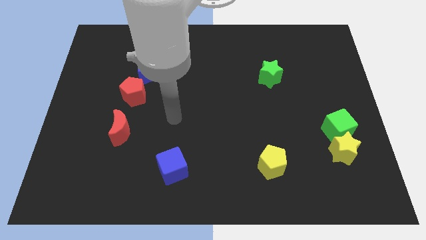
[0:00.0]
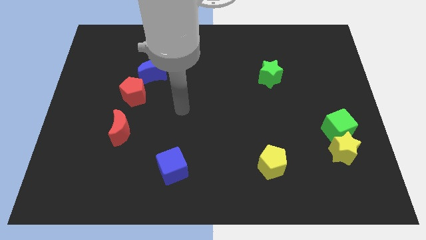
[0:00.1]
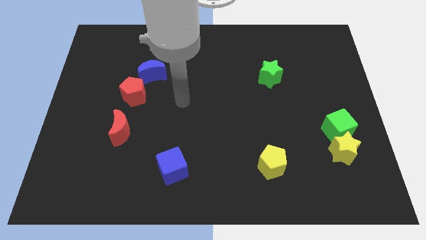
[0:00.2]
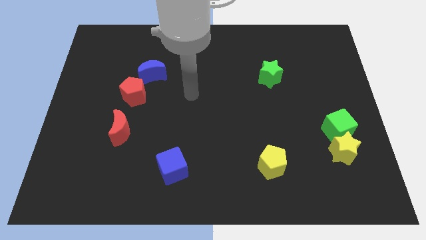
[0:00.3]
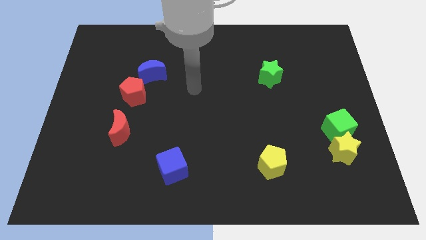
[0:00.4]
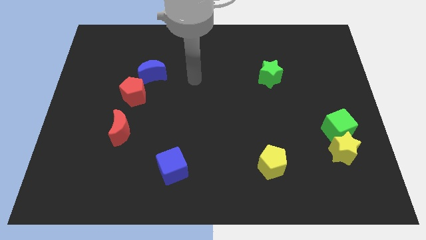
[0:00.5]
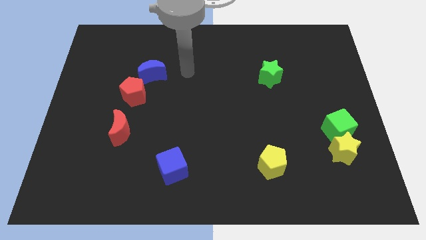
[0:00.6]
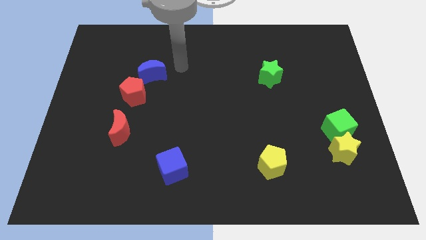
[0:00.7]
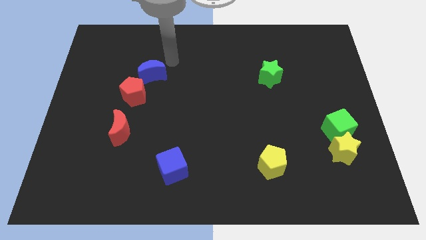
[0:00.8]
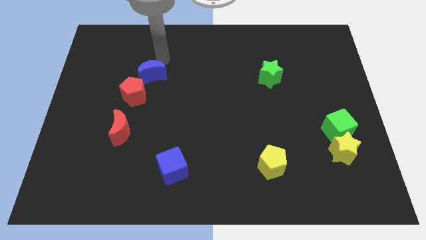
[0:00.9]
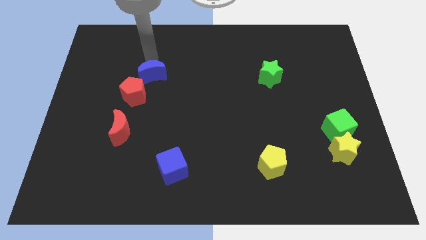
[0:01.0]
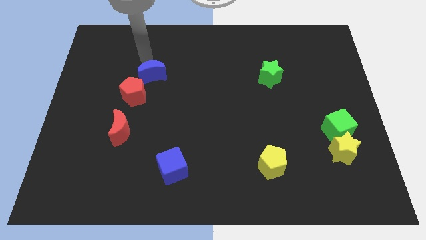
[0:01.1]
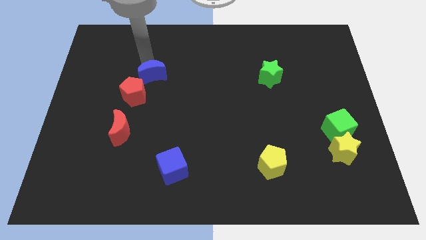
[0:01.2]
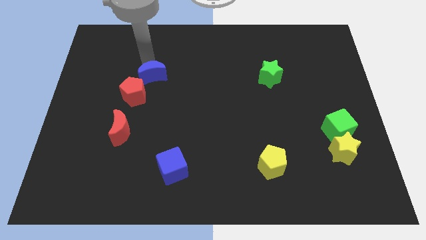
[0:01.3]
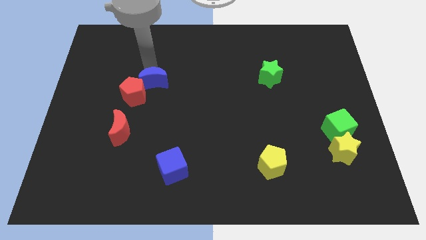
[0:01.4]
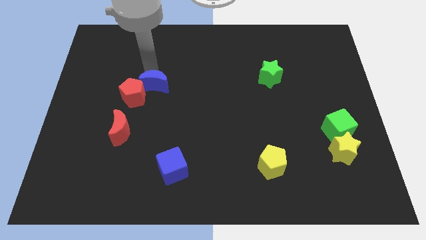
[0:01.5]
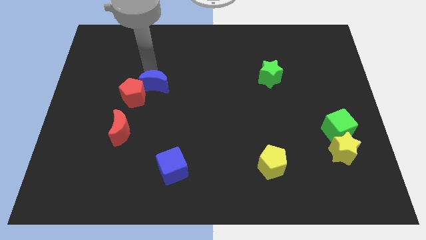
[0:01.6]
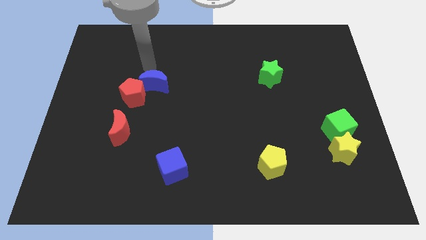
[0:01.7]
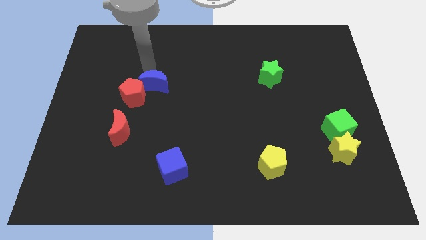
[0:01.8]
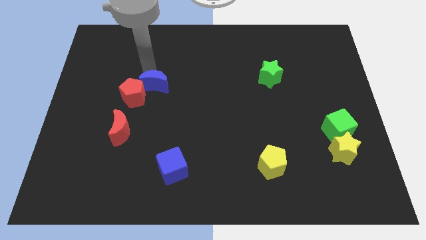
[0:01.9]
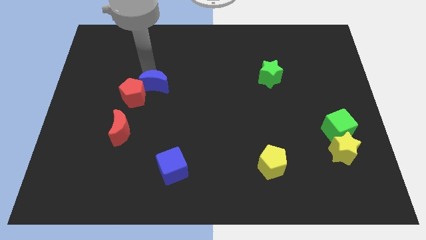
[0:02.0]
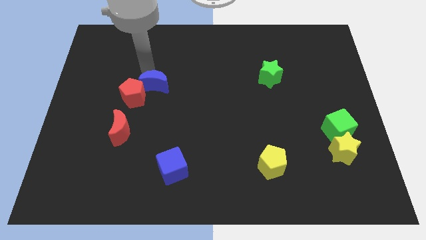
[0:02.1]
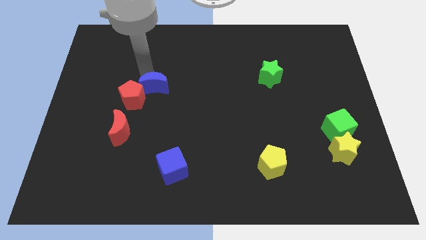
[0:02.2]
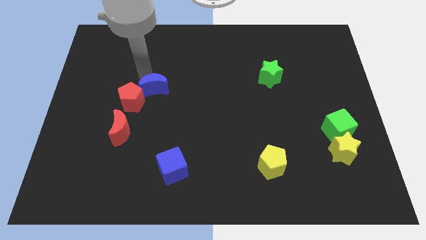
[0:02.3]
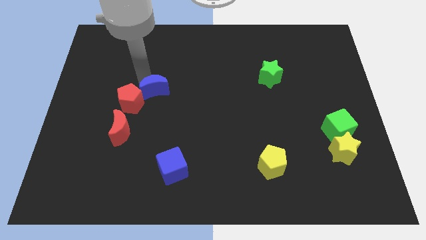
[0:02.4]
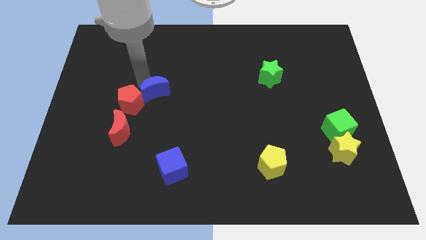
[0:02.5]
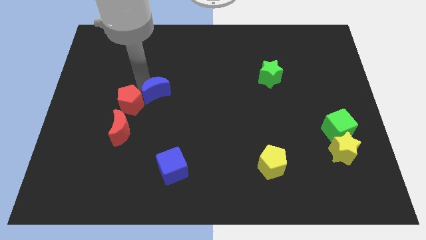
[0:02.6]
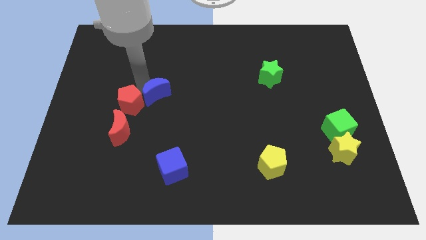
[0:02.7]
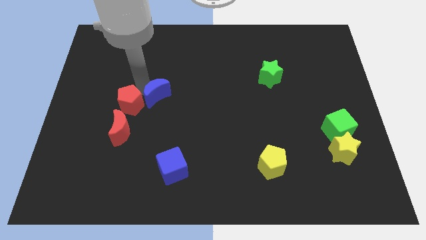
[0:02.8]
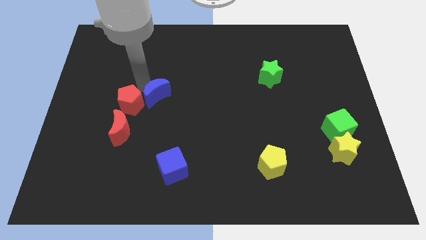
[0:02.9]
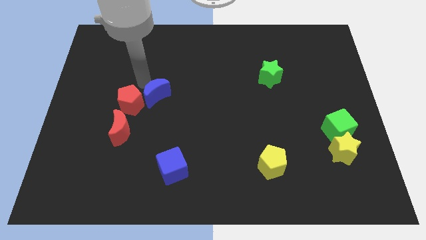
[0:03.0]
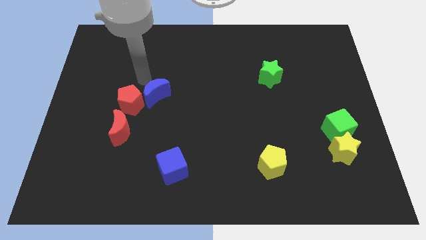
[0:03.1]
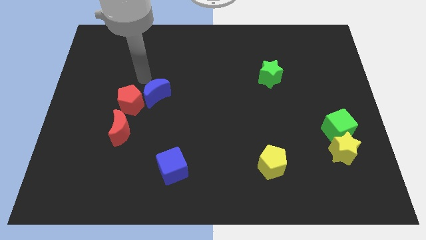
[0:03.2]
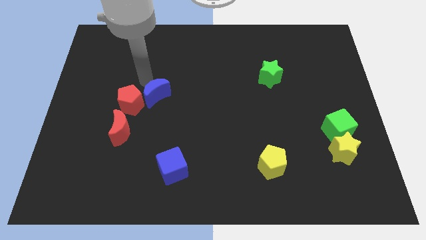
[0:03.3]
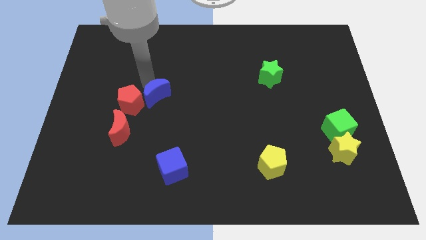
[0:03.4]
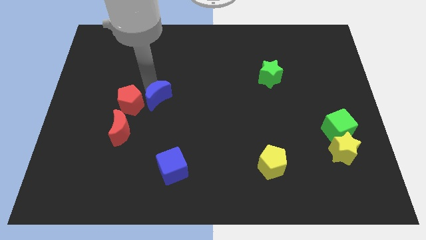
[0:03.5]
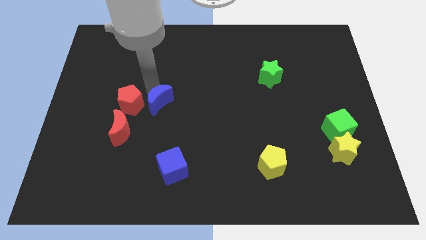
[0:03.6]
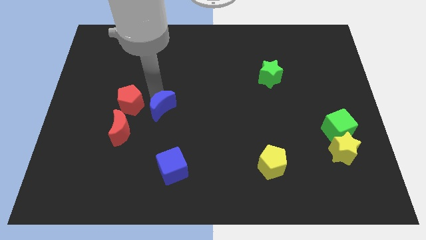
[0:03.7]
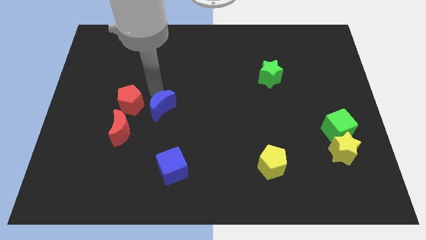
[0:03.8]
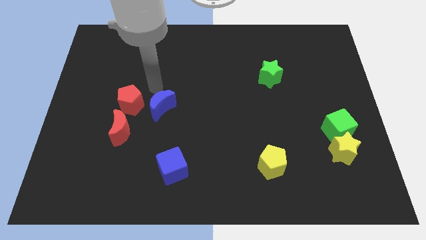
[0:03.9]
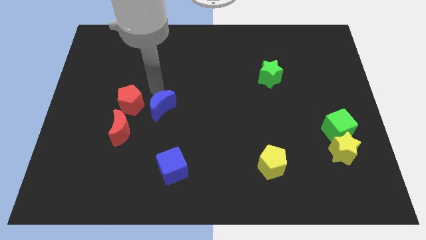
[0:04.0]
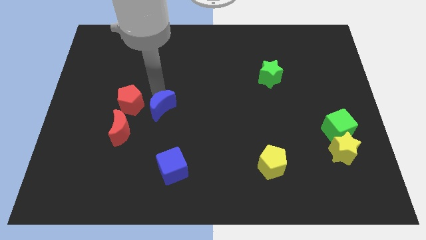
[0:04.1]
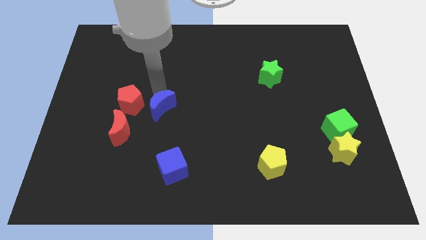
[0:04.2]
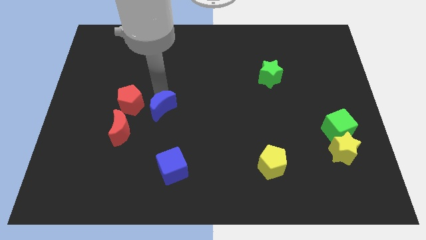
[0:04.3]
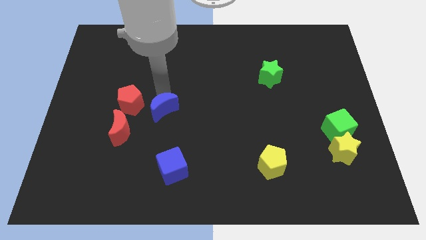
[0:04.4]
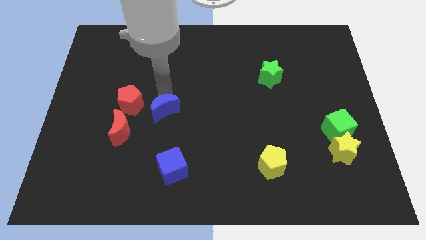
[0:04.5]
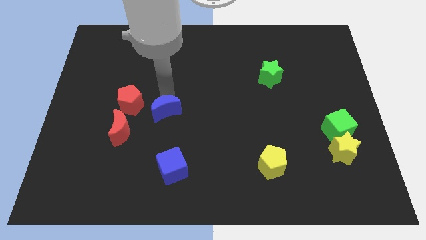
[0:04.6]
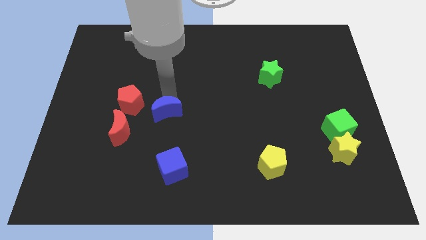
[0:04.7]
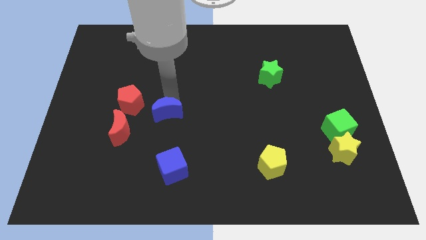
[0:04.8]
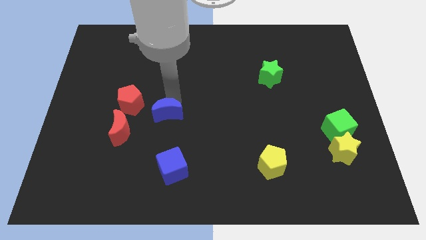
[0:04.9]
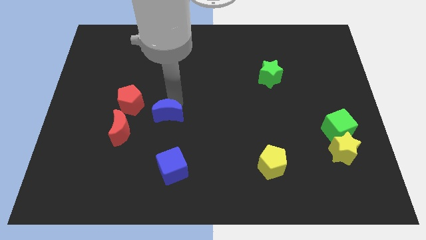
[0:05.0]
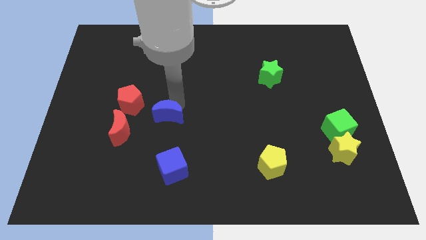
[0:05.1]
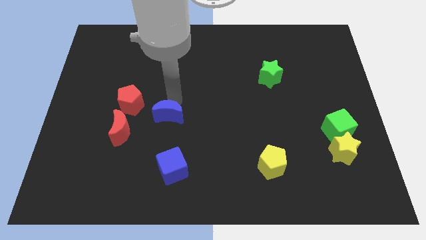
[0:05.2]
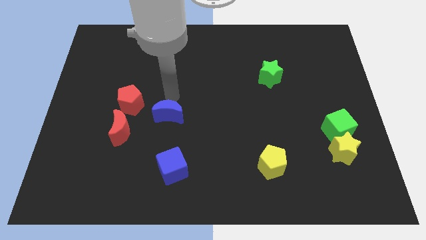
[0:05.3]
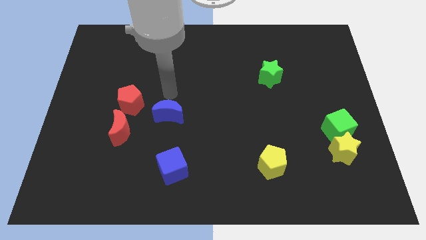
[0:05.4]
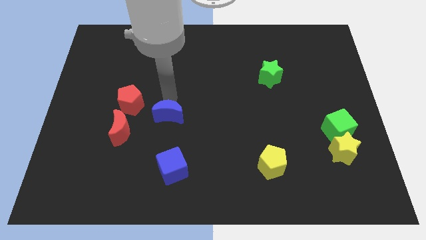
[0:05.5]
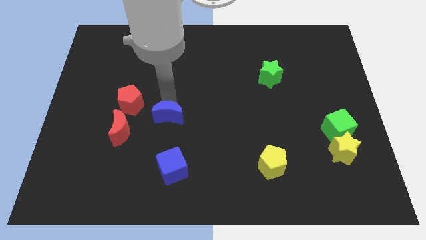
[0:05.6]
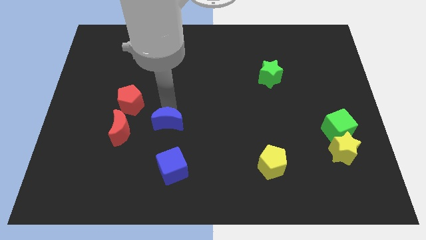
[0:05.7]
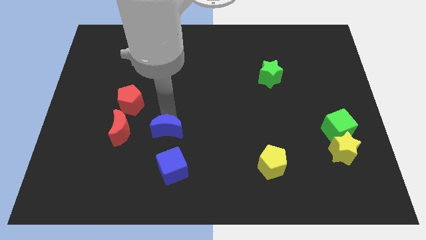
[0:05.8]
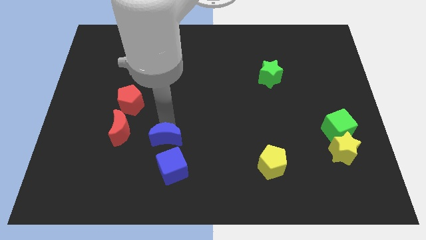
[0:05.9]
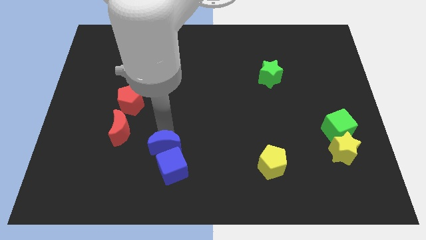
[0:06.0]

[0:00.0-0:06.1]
slide the blue moon towards the blue cube
